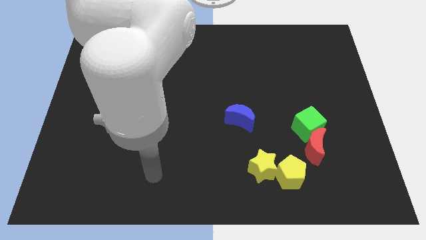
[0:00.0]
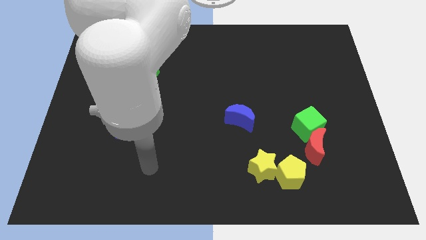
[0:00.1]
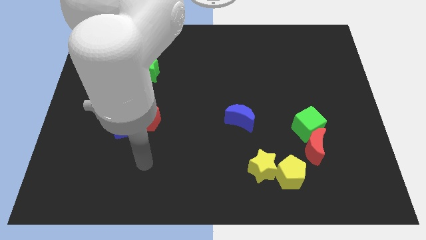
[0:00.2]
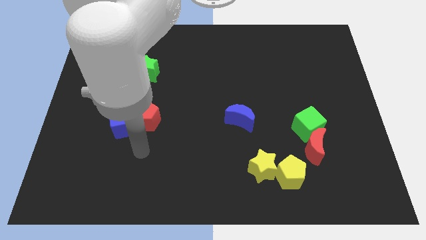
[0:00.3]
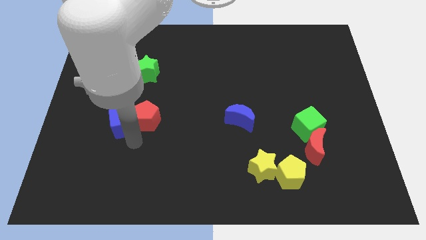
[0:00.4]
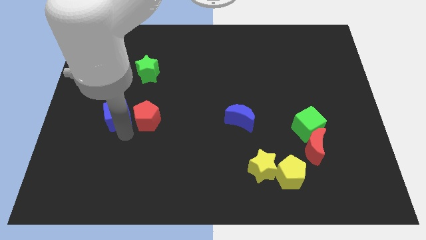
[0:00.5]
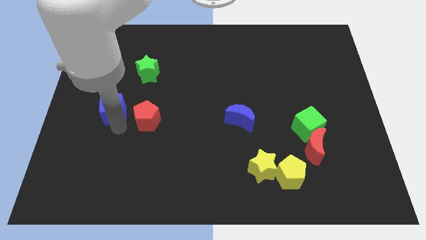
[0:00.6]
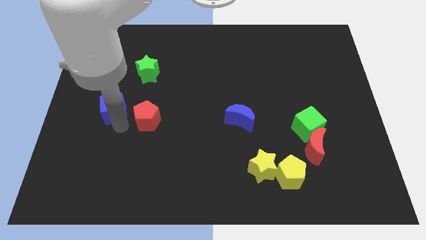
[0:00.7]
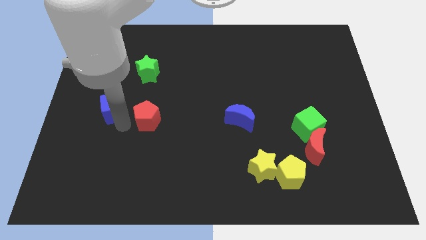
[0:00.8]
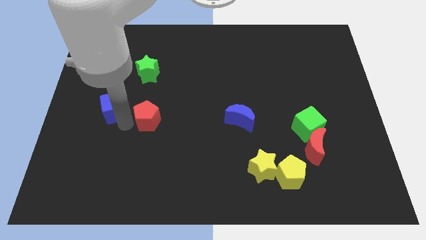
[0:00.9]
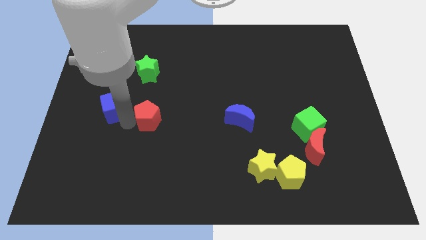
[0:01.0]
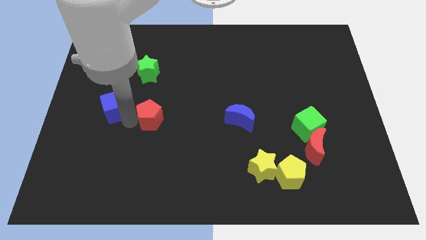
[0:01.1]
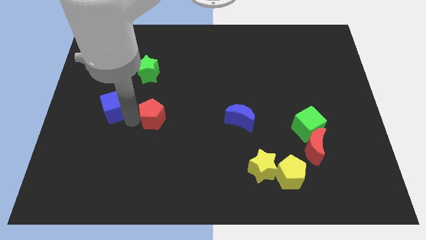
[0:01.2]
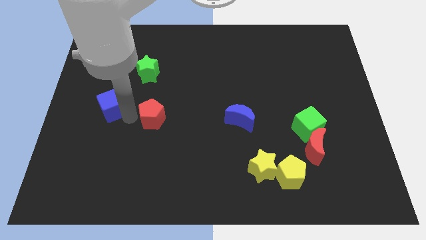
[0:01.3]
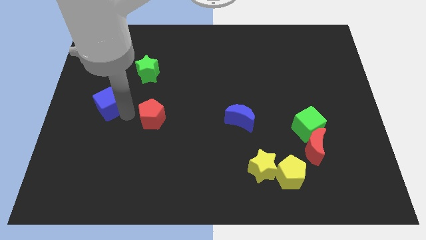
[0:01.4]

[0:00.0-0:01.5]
pull the red pentagon apart from the blue cube

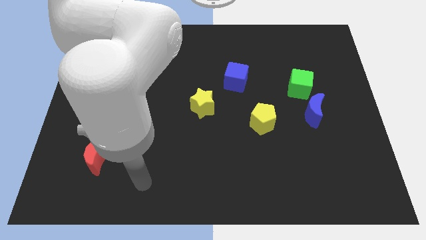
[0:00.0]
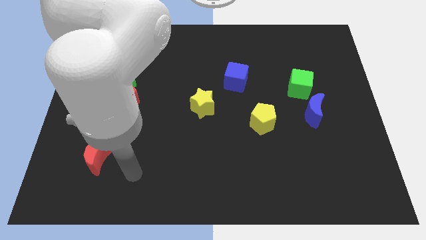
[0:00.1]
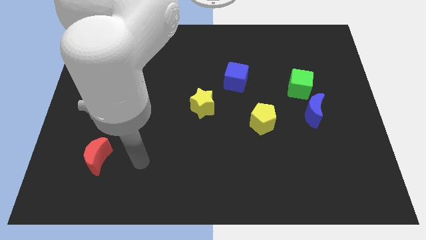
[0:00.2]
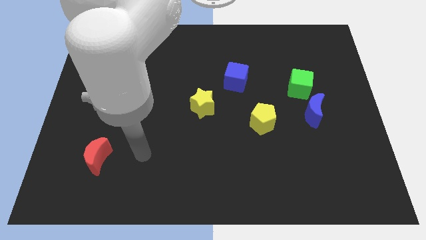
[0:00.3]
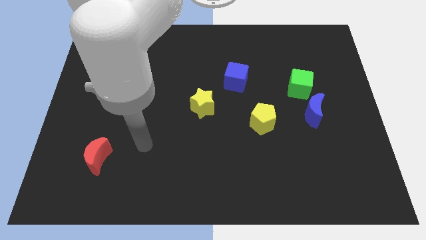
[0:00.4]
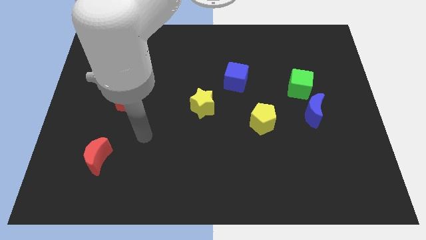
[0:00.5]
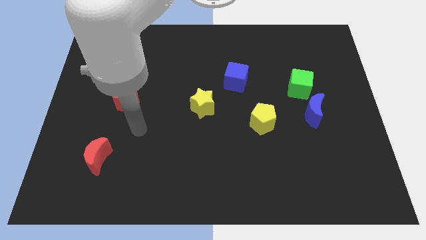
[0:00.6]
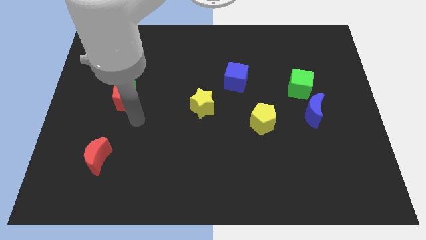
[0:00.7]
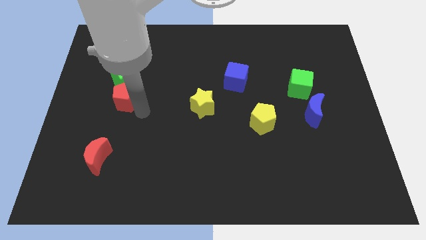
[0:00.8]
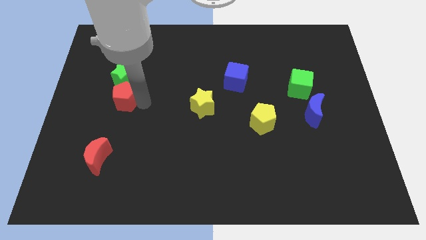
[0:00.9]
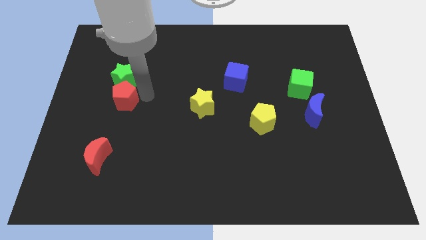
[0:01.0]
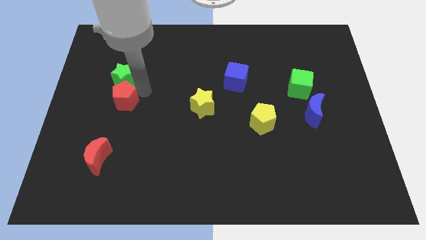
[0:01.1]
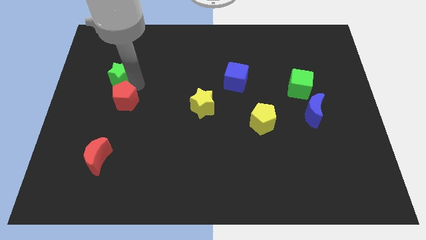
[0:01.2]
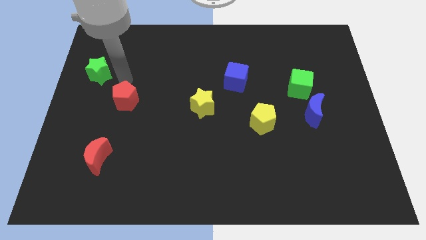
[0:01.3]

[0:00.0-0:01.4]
pull the red pentagon apart from the green star

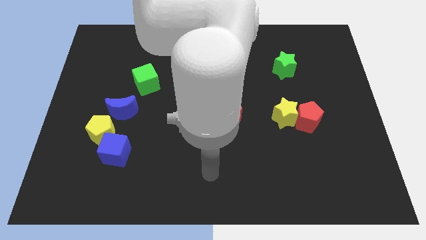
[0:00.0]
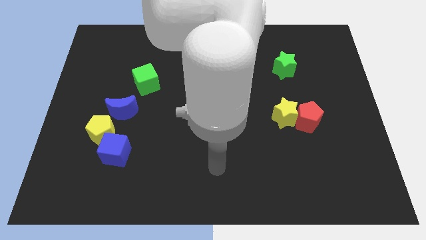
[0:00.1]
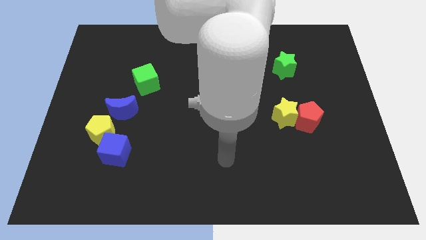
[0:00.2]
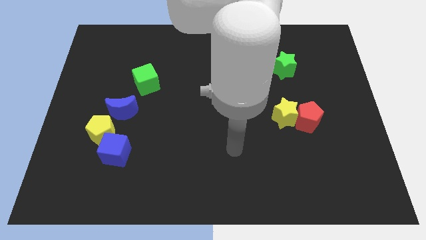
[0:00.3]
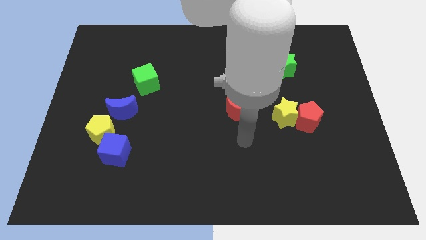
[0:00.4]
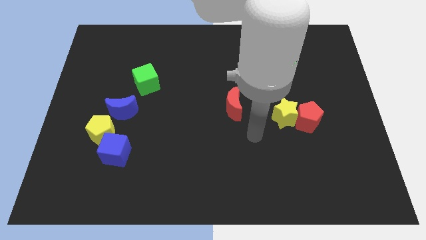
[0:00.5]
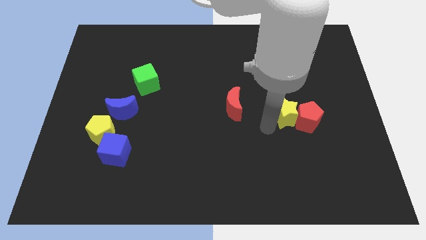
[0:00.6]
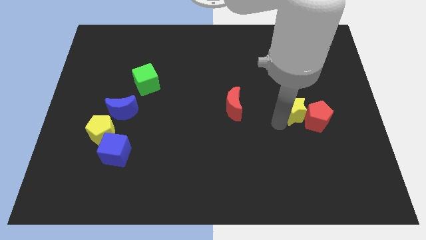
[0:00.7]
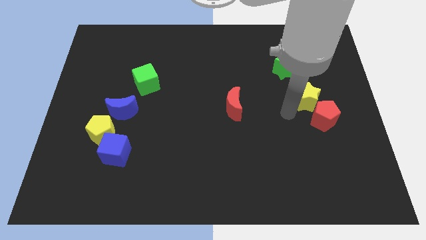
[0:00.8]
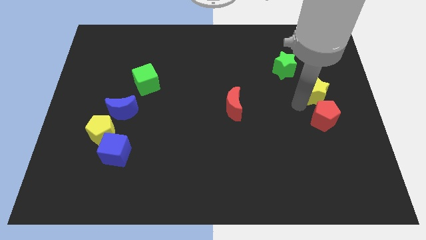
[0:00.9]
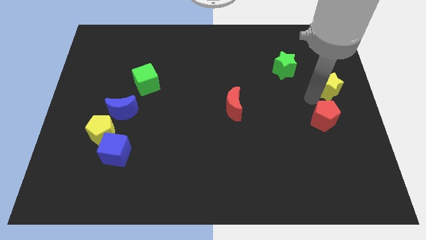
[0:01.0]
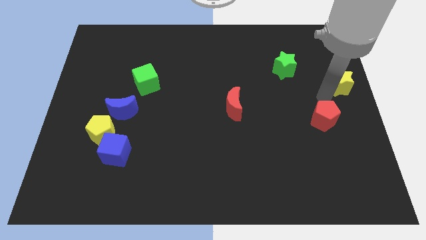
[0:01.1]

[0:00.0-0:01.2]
separate the red pentagon from the yellow star

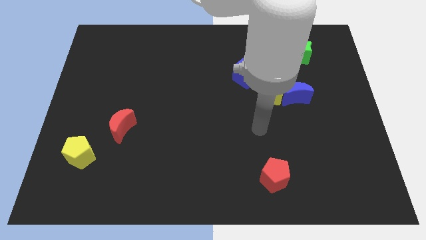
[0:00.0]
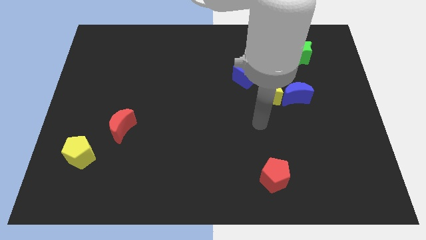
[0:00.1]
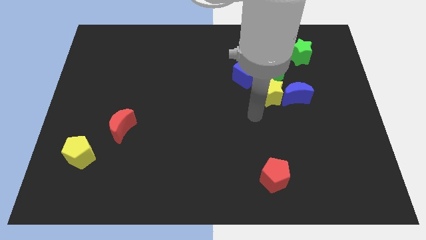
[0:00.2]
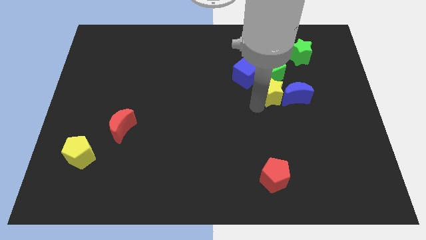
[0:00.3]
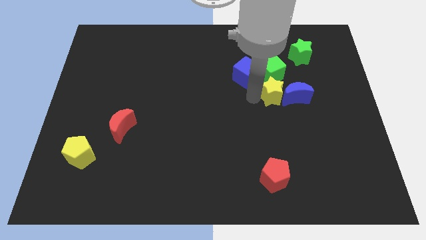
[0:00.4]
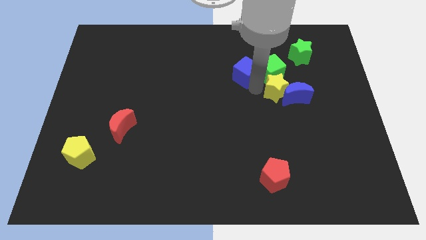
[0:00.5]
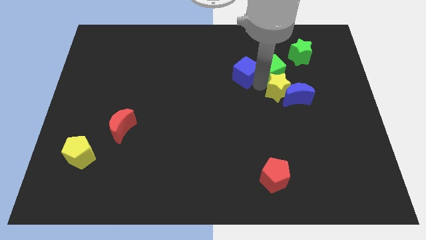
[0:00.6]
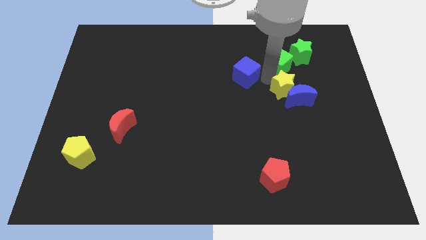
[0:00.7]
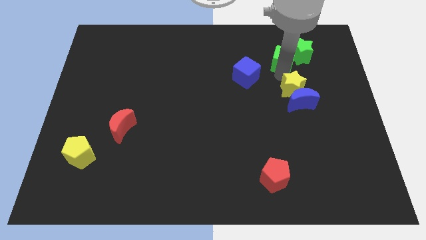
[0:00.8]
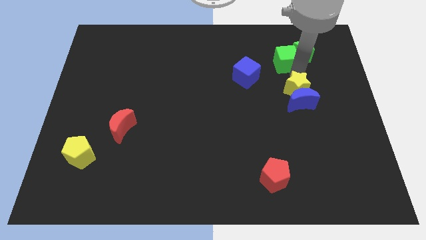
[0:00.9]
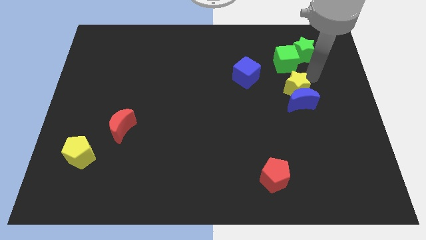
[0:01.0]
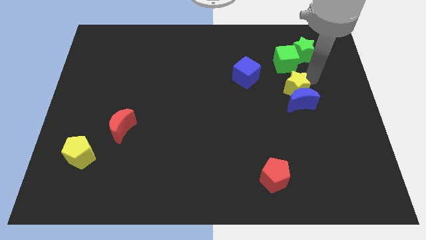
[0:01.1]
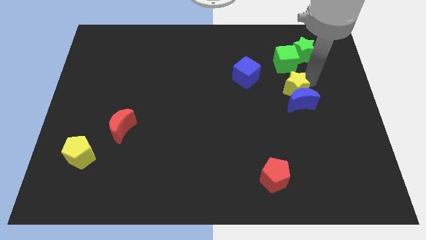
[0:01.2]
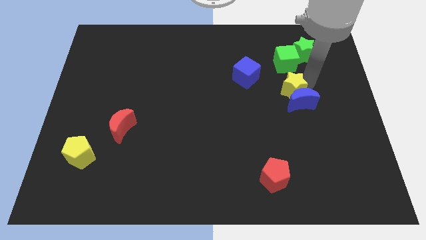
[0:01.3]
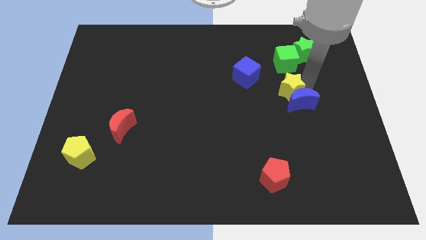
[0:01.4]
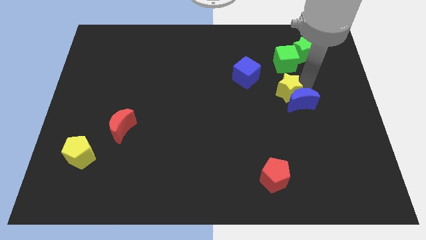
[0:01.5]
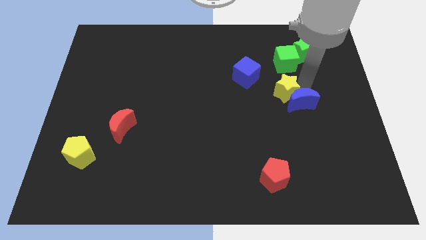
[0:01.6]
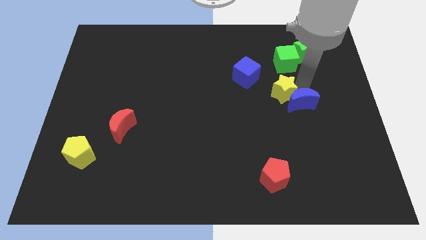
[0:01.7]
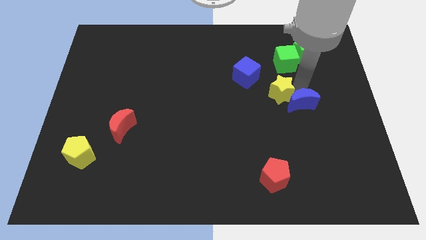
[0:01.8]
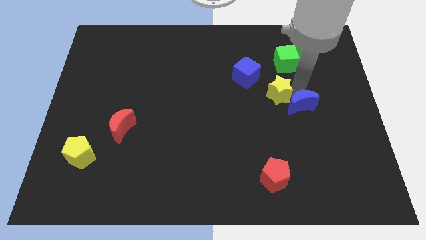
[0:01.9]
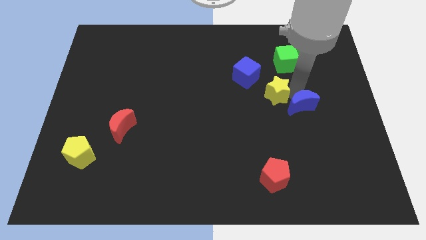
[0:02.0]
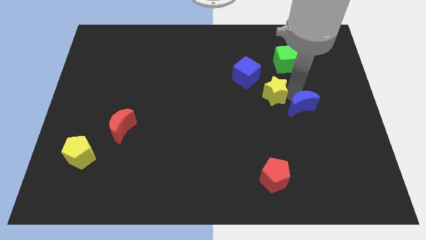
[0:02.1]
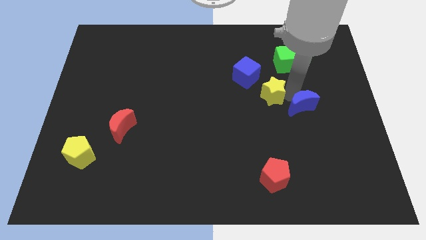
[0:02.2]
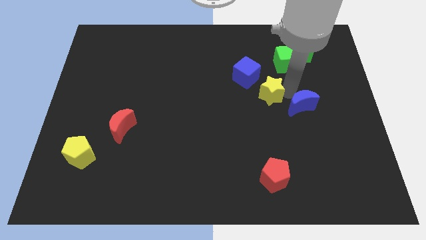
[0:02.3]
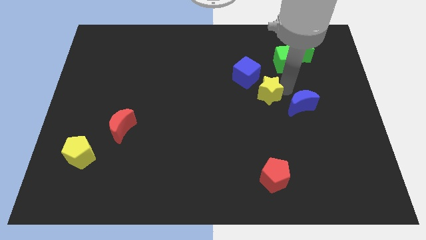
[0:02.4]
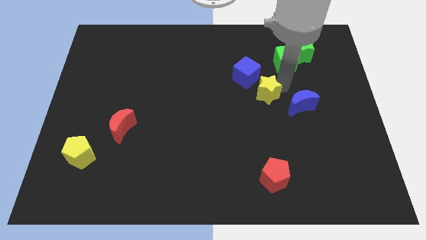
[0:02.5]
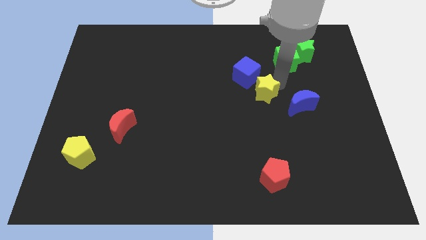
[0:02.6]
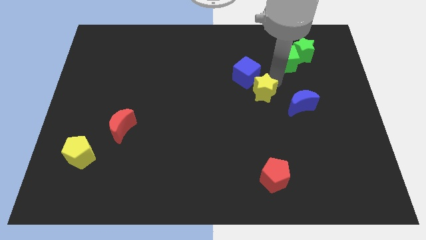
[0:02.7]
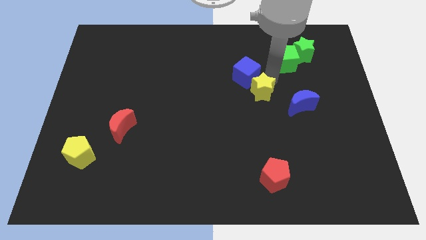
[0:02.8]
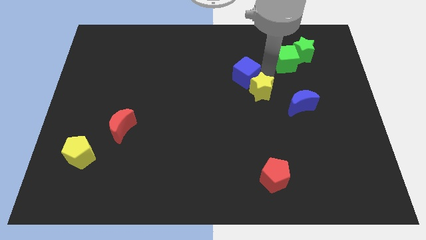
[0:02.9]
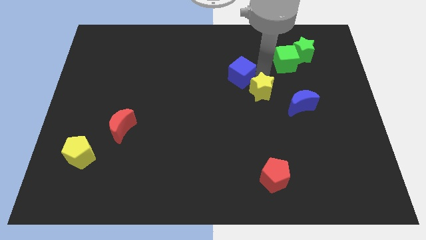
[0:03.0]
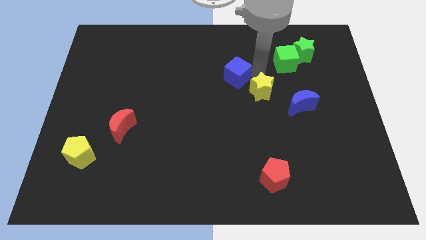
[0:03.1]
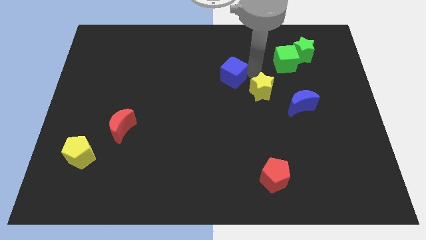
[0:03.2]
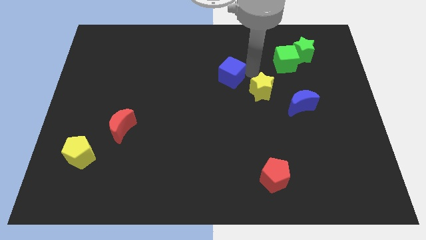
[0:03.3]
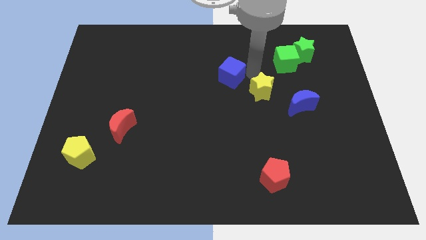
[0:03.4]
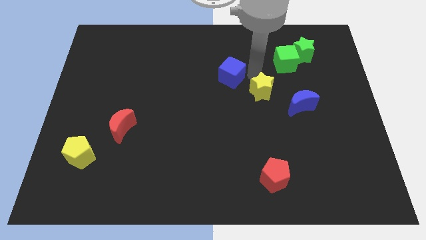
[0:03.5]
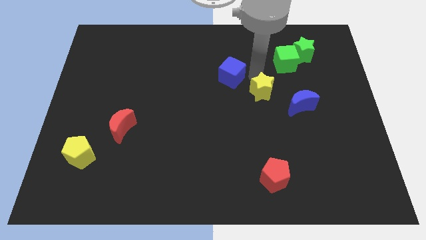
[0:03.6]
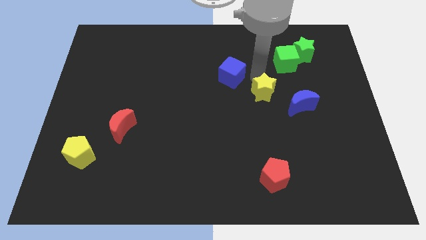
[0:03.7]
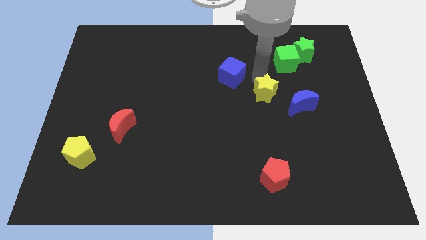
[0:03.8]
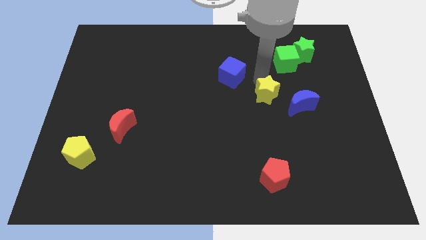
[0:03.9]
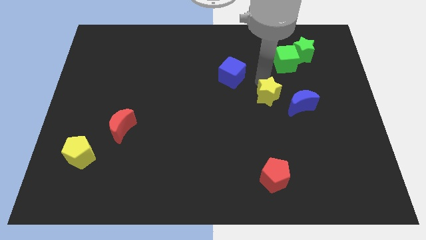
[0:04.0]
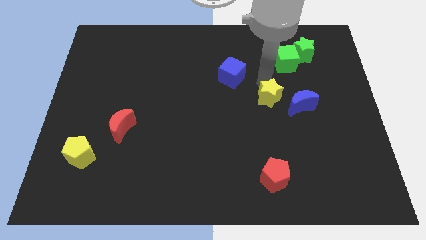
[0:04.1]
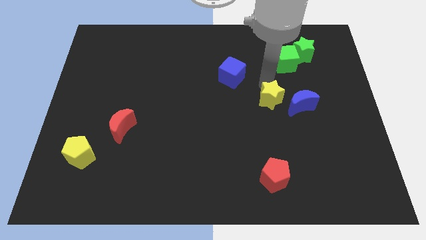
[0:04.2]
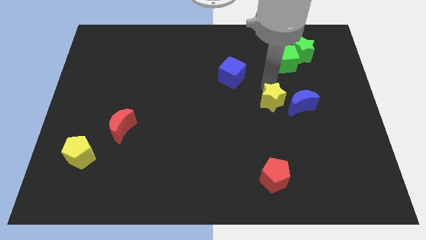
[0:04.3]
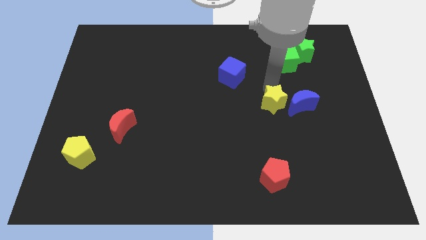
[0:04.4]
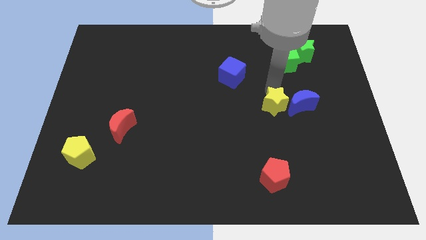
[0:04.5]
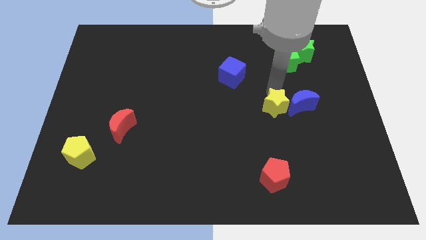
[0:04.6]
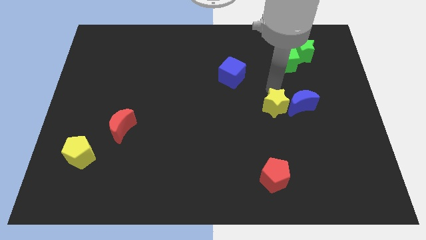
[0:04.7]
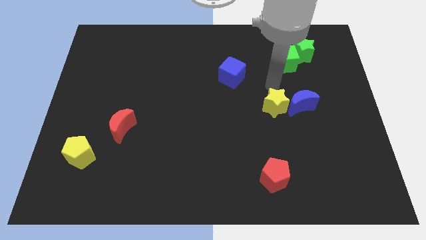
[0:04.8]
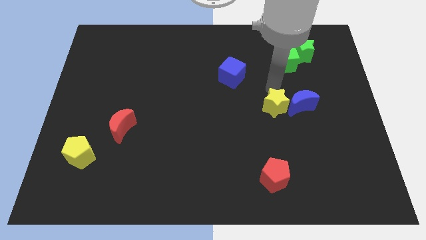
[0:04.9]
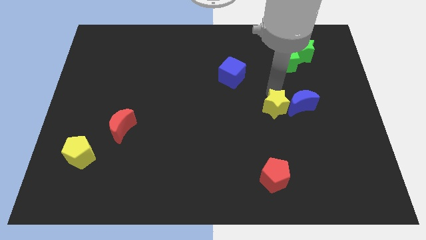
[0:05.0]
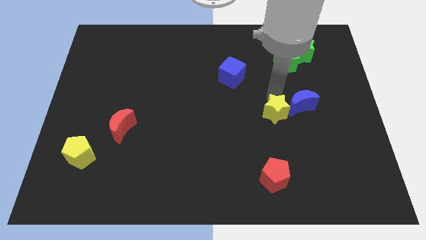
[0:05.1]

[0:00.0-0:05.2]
separate the yellow star from the blue moon, green cube, and blue cube

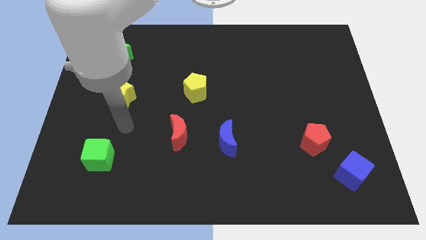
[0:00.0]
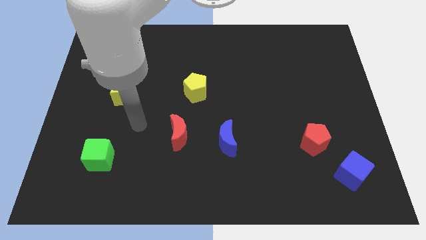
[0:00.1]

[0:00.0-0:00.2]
move the red pentagon away from the blue cube
